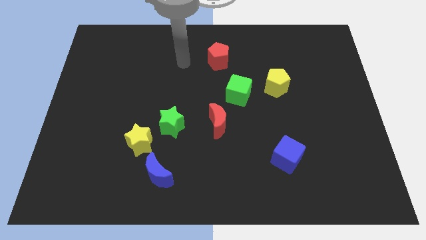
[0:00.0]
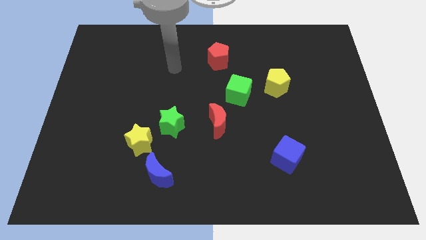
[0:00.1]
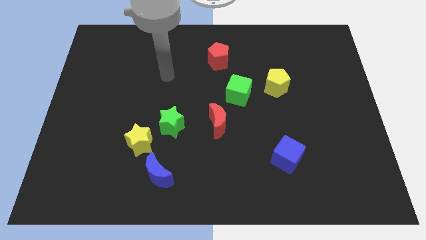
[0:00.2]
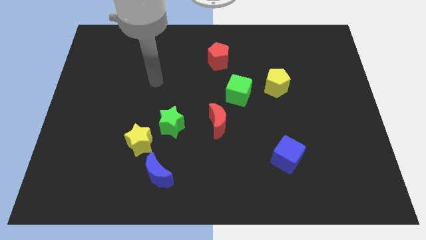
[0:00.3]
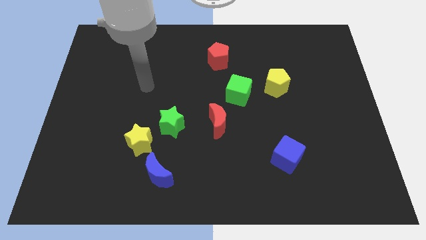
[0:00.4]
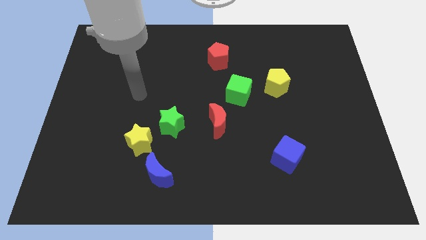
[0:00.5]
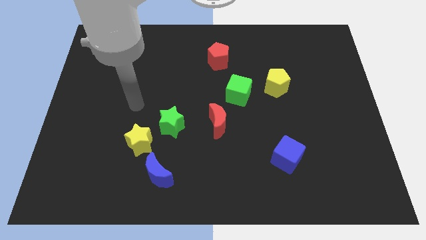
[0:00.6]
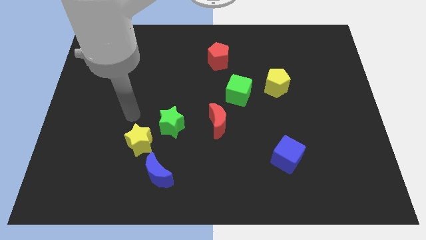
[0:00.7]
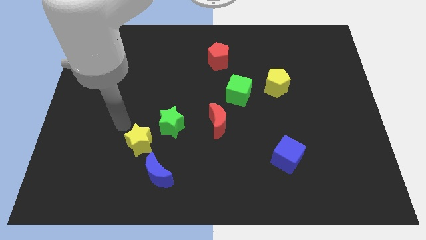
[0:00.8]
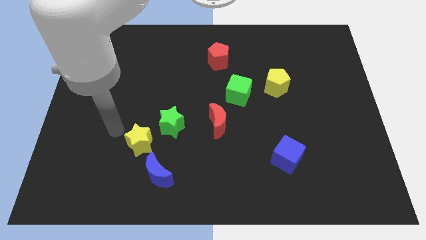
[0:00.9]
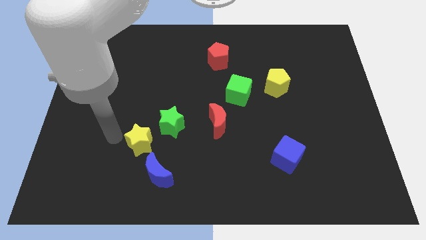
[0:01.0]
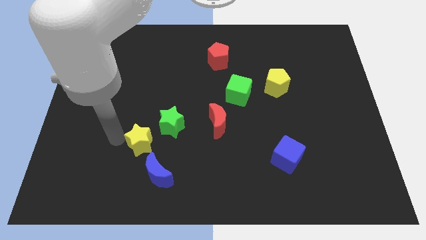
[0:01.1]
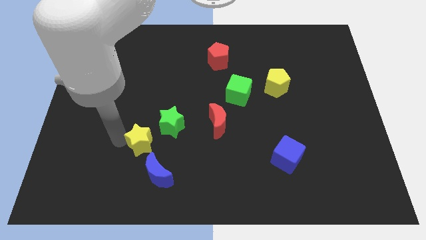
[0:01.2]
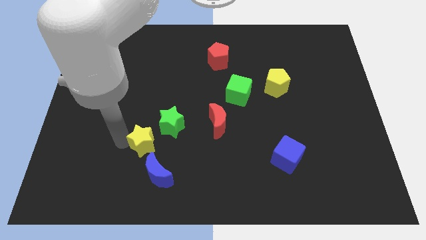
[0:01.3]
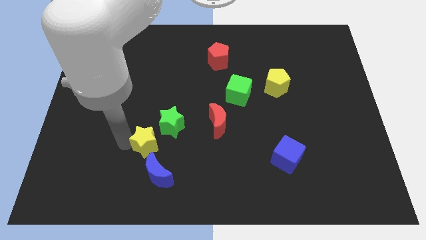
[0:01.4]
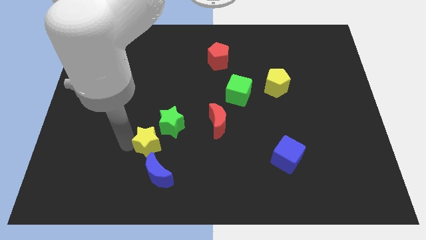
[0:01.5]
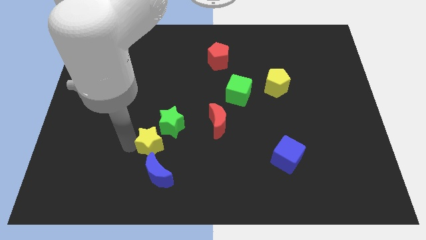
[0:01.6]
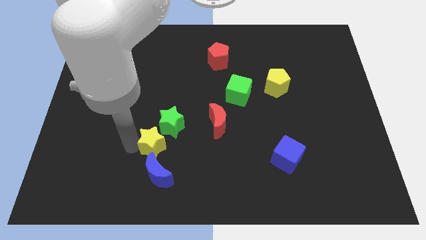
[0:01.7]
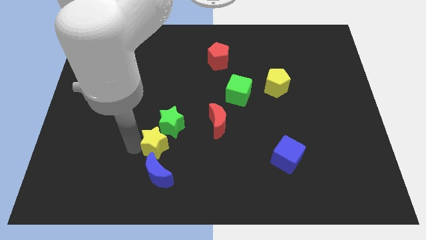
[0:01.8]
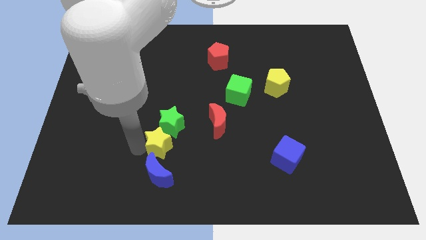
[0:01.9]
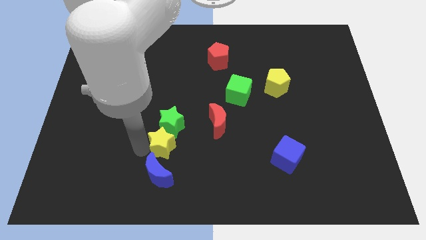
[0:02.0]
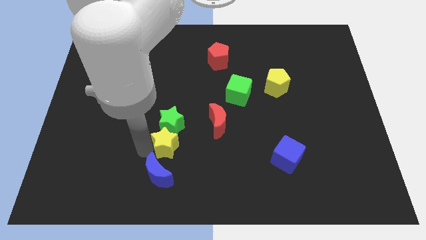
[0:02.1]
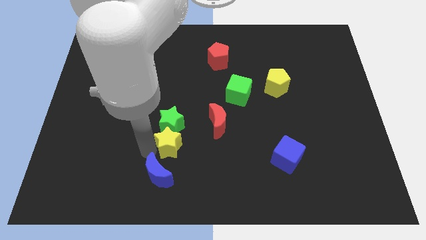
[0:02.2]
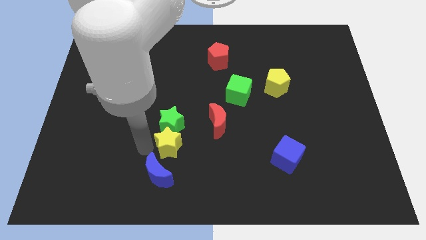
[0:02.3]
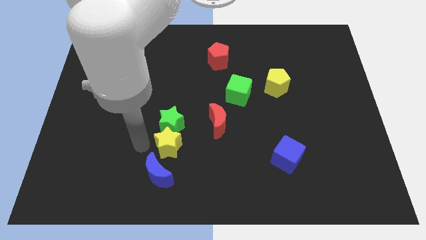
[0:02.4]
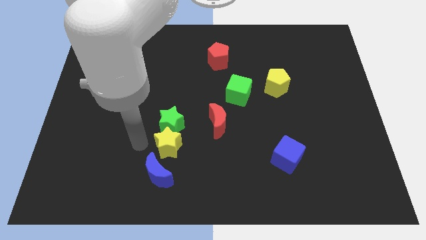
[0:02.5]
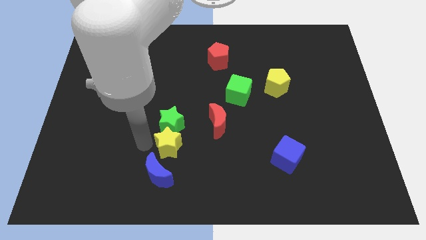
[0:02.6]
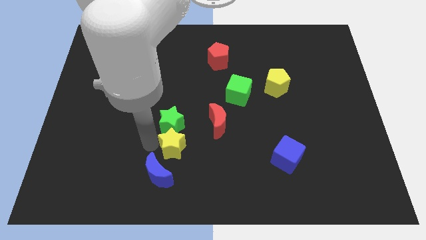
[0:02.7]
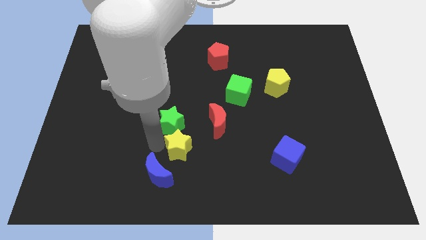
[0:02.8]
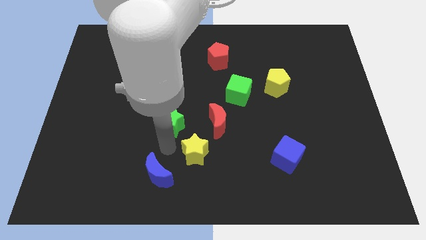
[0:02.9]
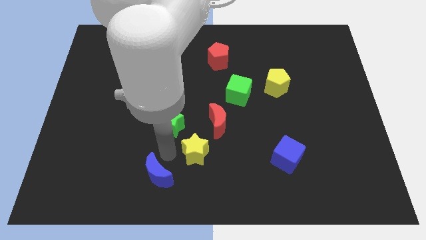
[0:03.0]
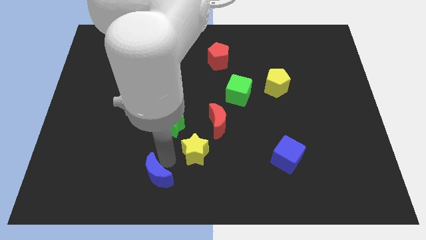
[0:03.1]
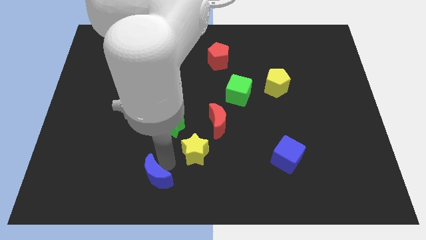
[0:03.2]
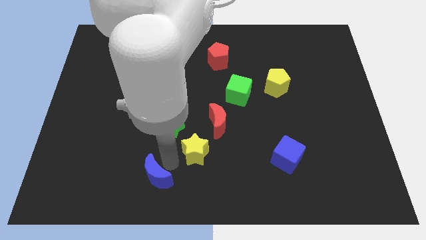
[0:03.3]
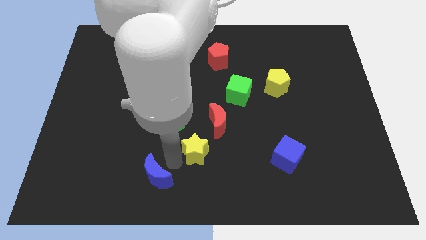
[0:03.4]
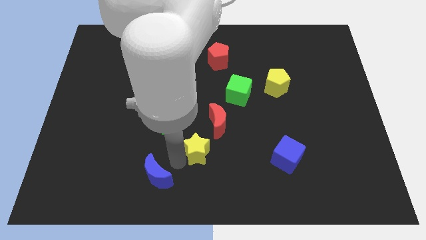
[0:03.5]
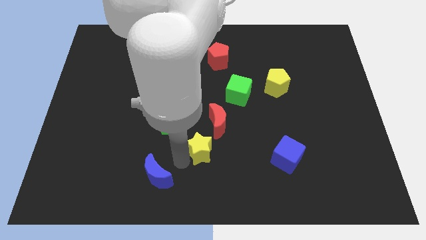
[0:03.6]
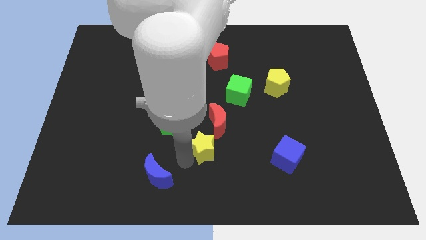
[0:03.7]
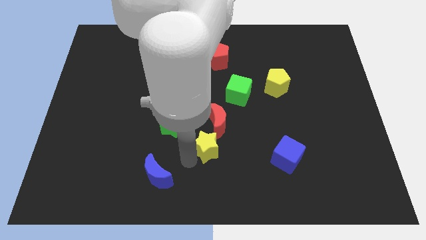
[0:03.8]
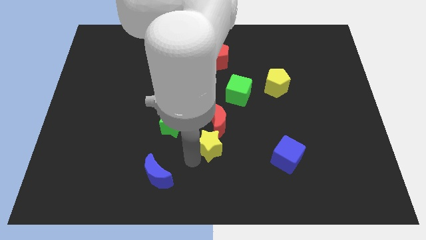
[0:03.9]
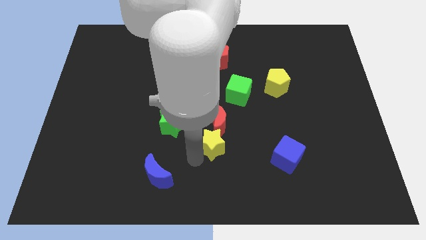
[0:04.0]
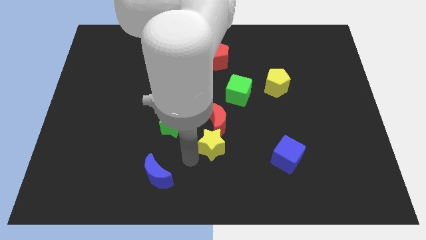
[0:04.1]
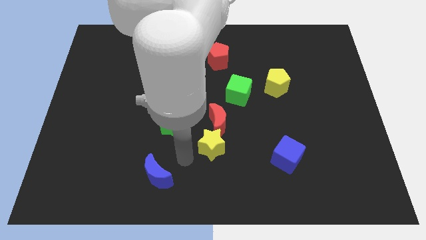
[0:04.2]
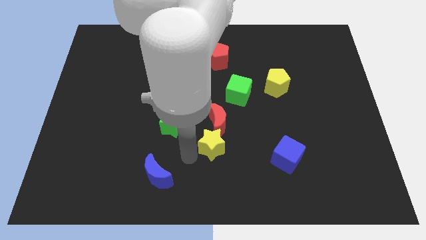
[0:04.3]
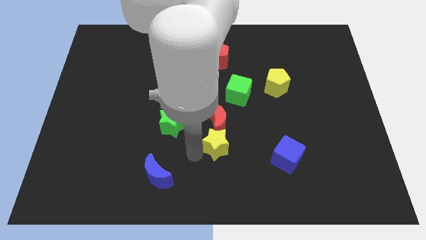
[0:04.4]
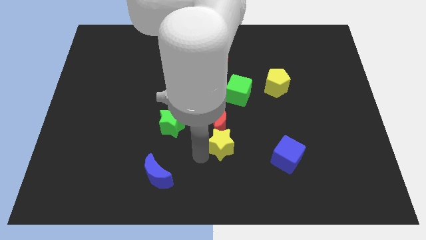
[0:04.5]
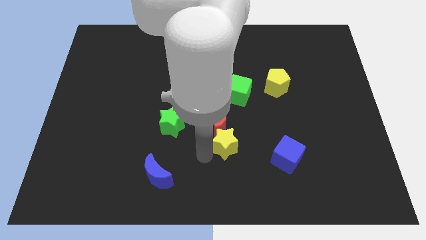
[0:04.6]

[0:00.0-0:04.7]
move the yellow star to the bottom side of the green cube

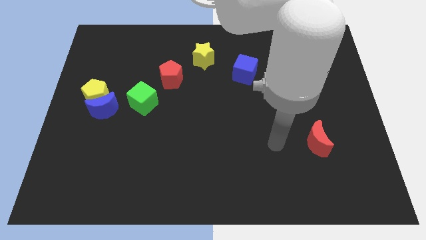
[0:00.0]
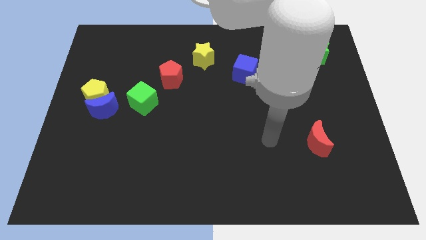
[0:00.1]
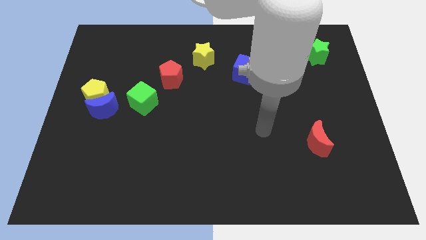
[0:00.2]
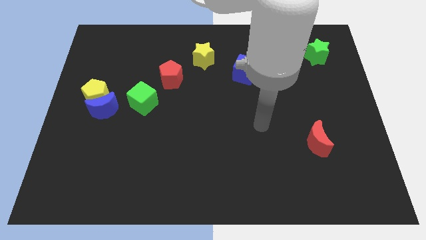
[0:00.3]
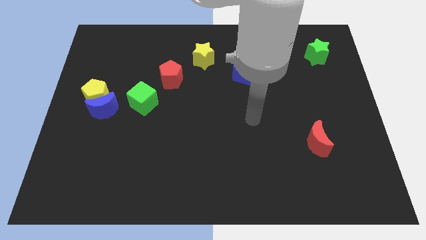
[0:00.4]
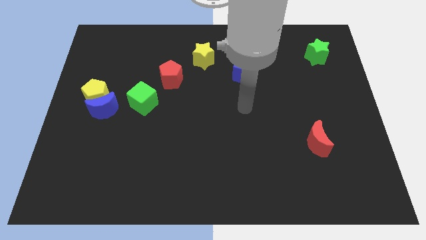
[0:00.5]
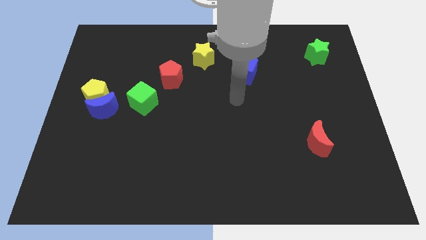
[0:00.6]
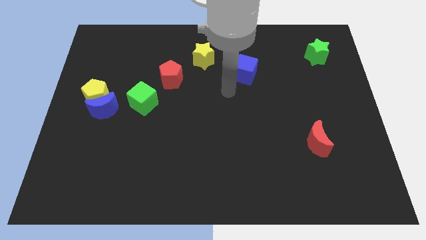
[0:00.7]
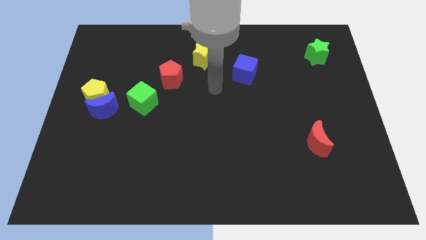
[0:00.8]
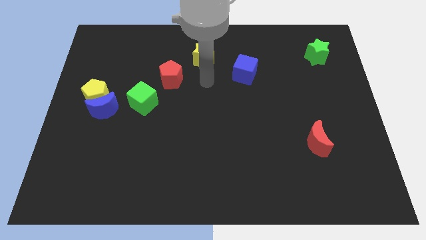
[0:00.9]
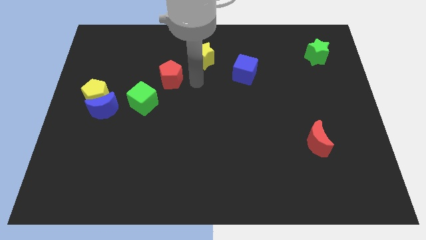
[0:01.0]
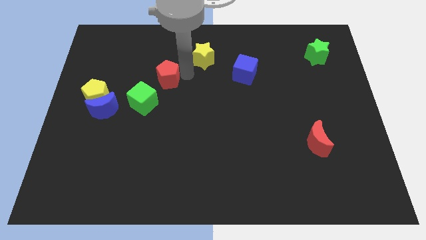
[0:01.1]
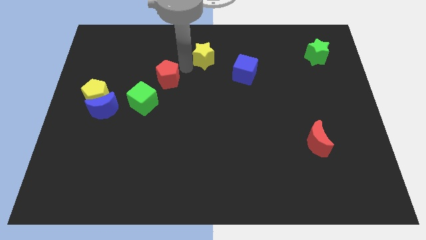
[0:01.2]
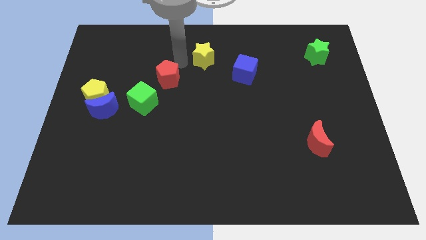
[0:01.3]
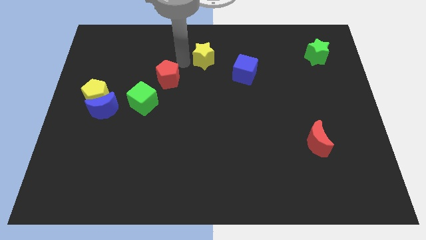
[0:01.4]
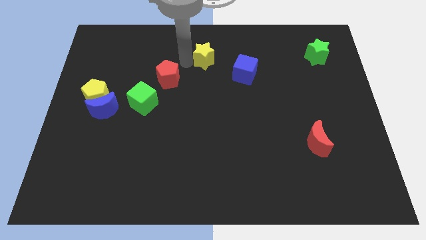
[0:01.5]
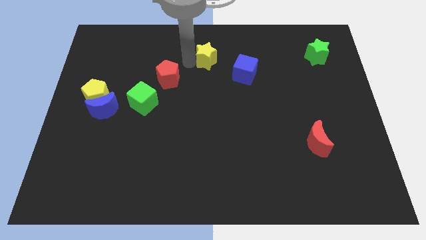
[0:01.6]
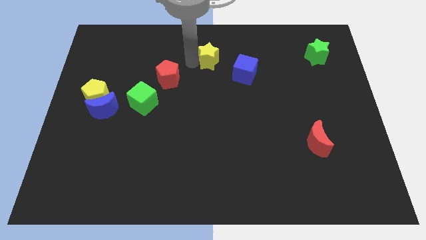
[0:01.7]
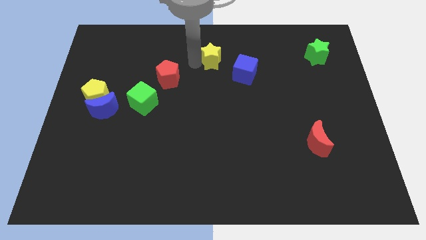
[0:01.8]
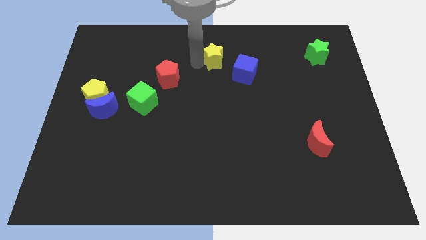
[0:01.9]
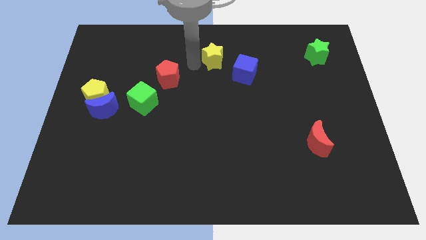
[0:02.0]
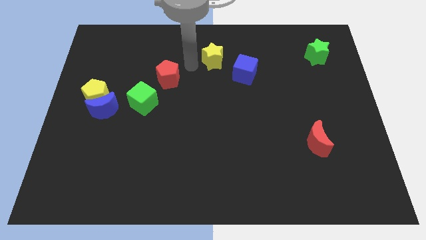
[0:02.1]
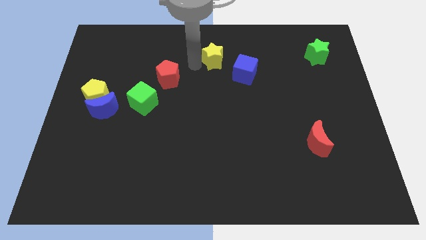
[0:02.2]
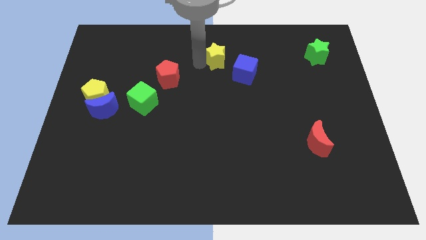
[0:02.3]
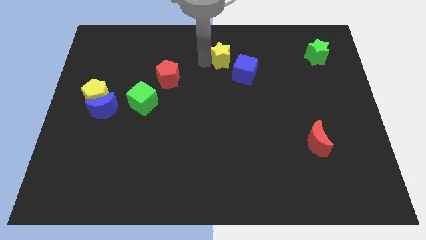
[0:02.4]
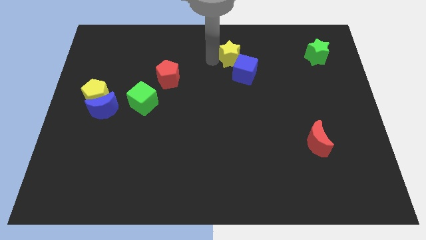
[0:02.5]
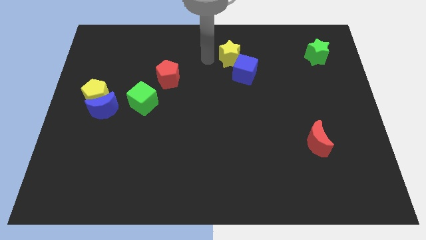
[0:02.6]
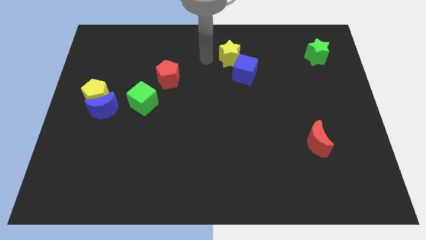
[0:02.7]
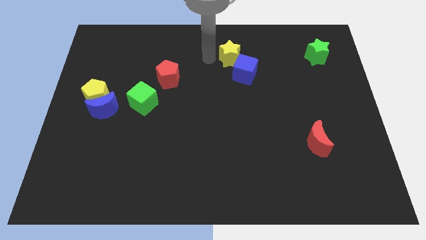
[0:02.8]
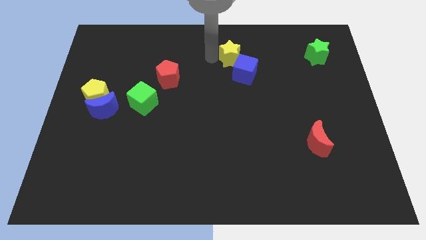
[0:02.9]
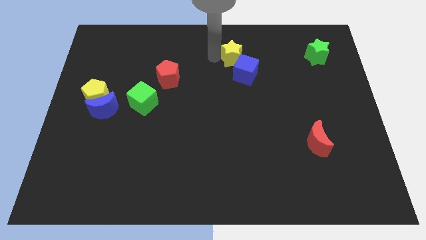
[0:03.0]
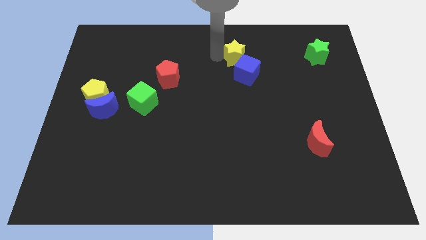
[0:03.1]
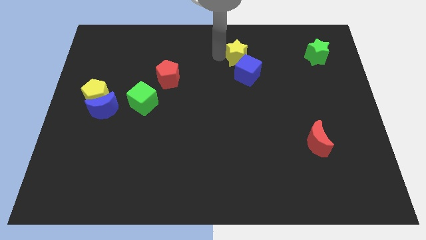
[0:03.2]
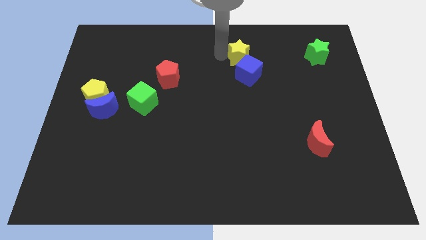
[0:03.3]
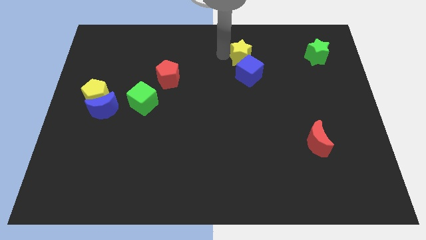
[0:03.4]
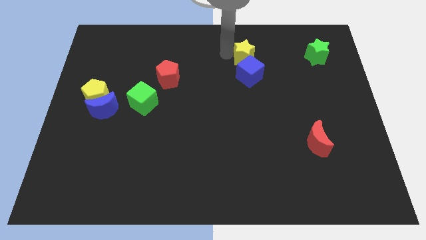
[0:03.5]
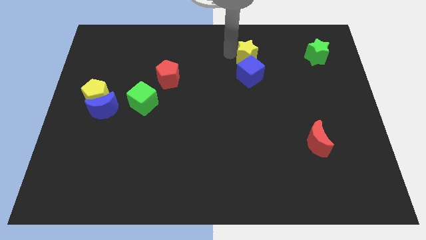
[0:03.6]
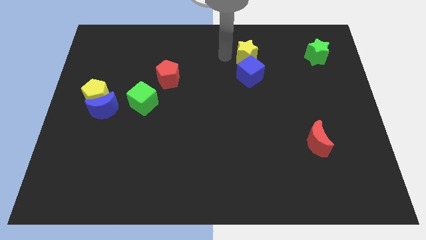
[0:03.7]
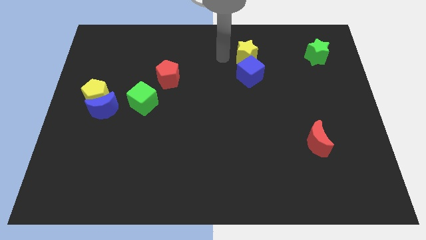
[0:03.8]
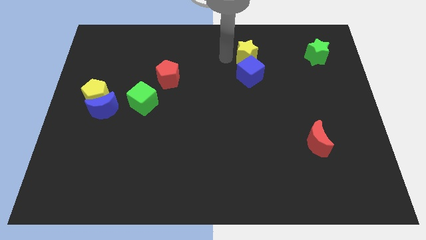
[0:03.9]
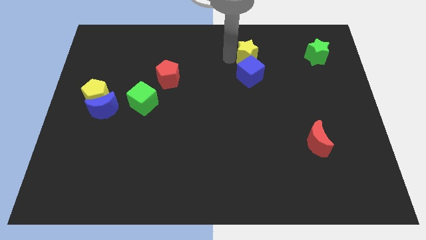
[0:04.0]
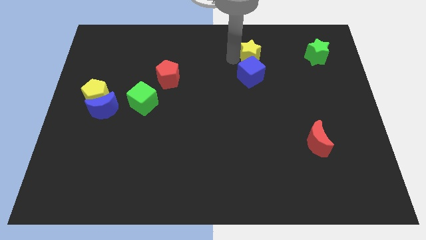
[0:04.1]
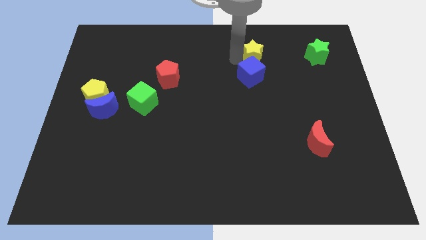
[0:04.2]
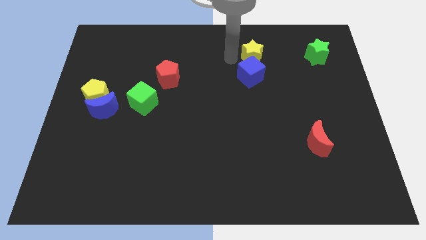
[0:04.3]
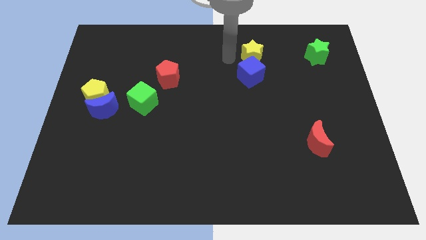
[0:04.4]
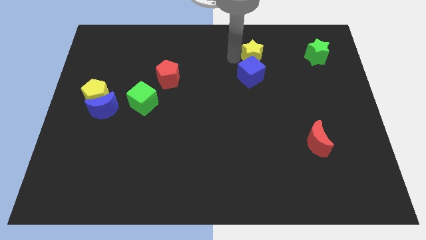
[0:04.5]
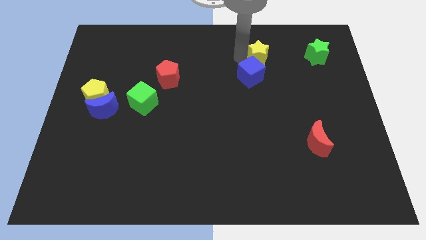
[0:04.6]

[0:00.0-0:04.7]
put the yellow star to the left of the green star
